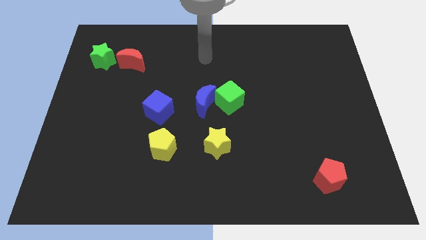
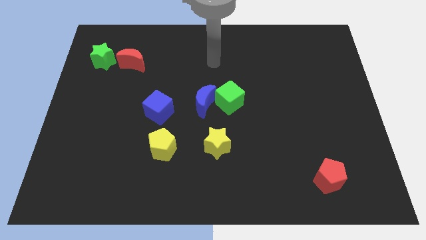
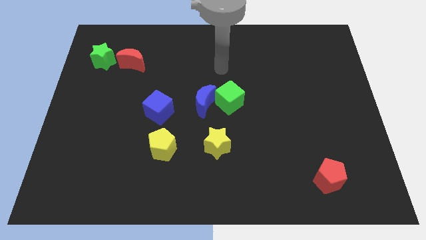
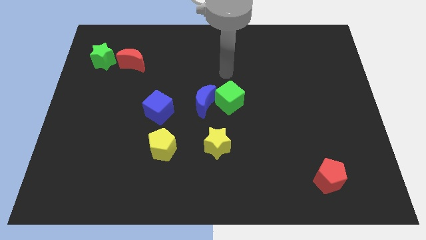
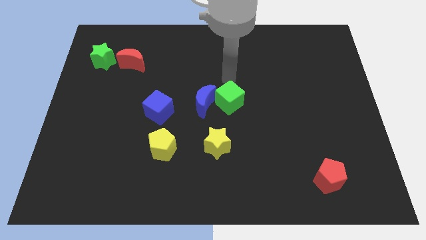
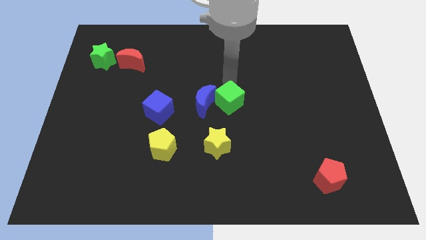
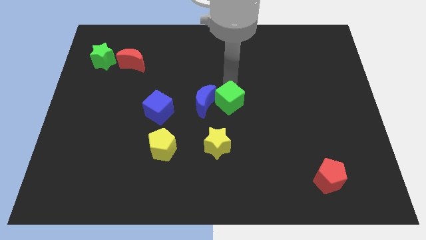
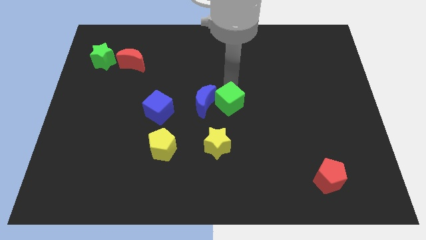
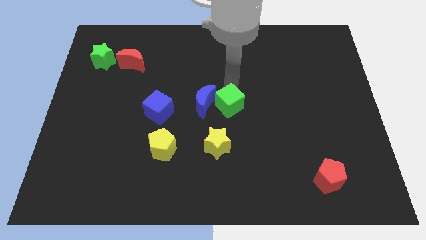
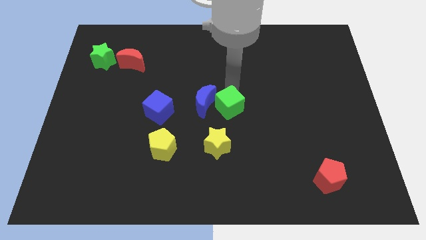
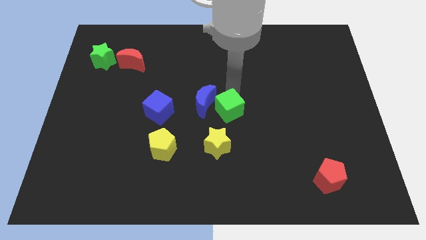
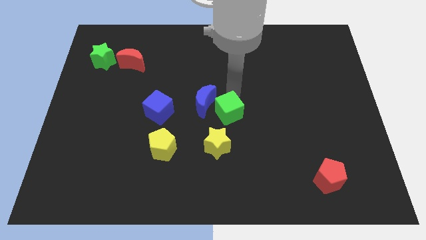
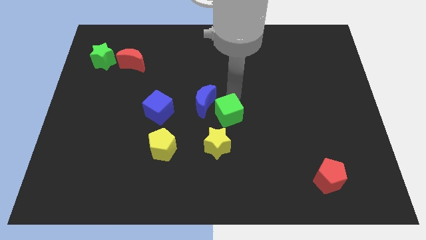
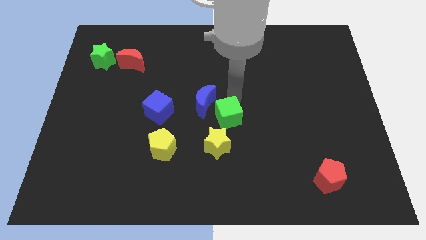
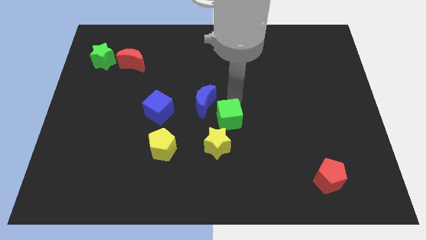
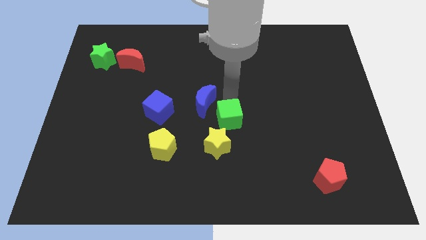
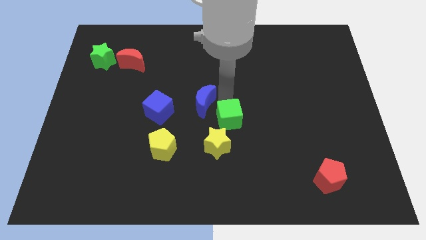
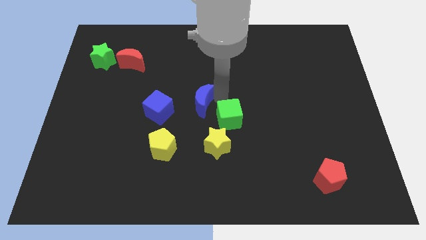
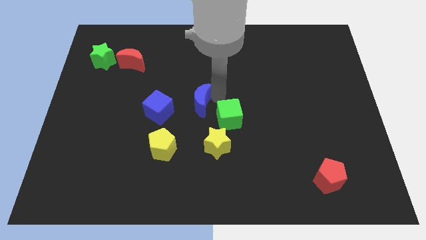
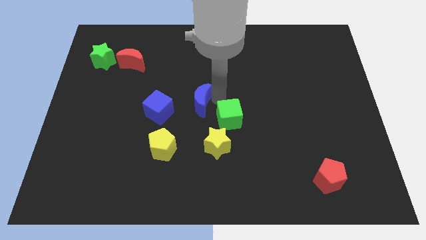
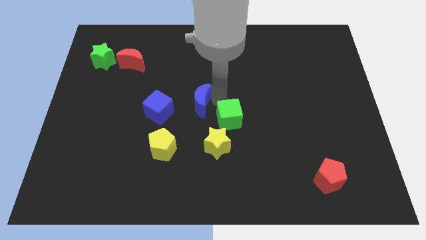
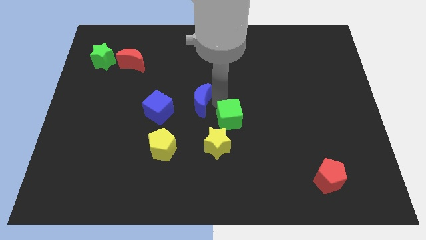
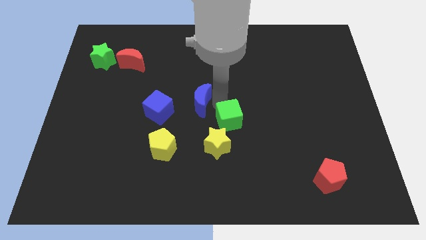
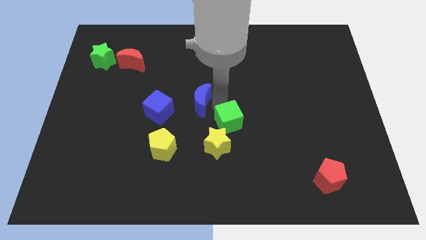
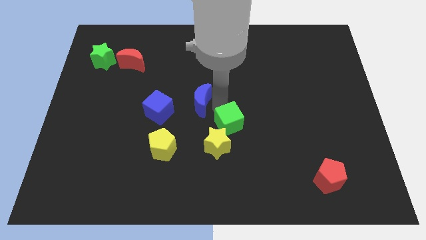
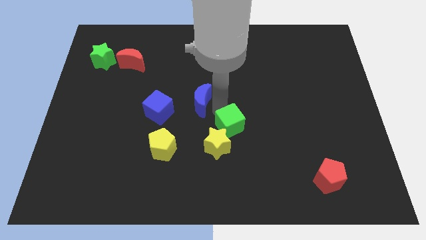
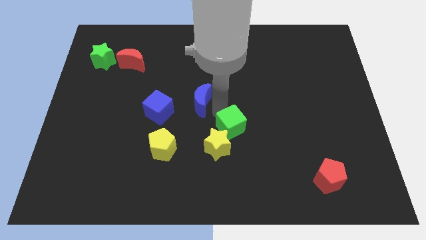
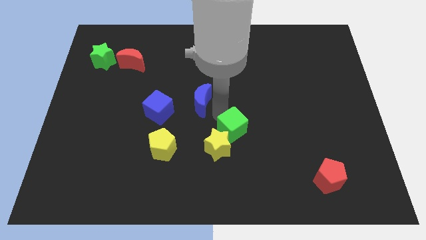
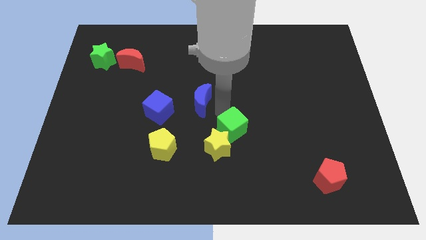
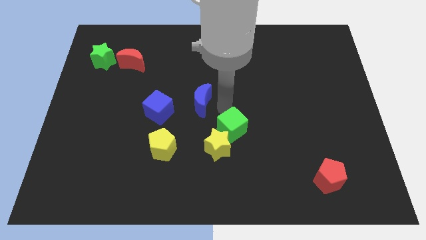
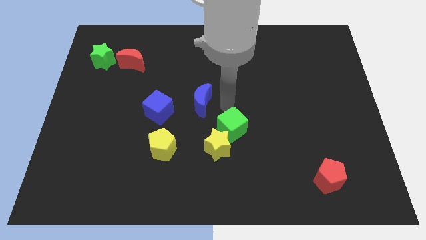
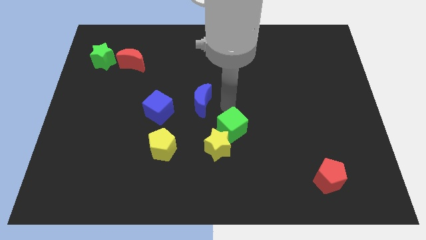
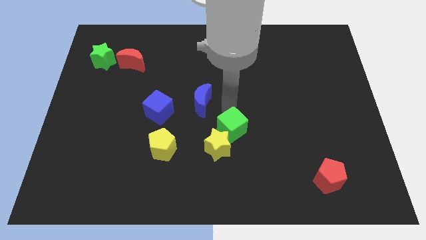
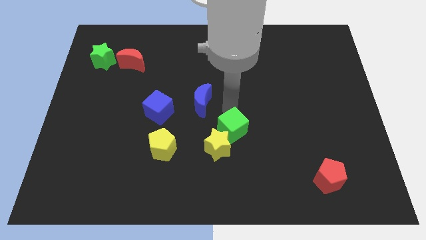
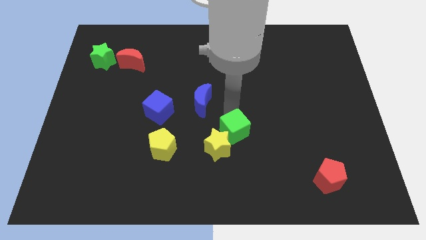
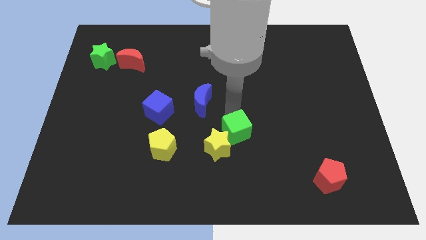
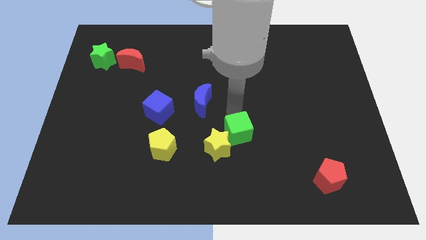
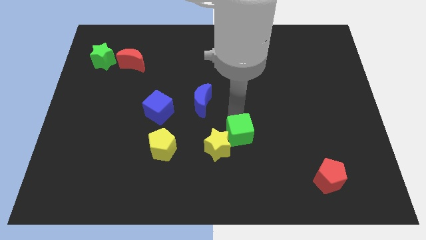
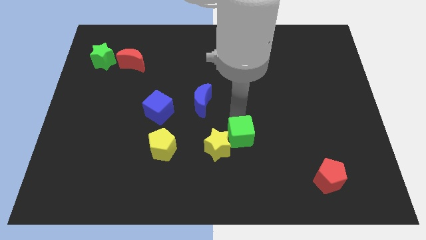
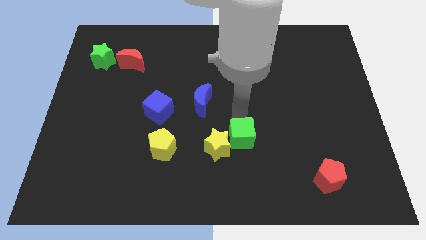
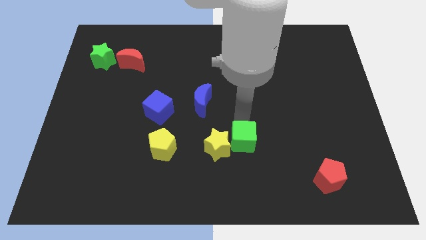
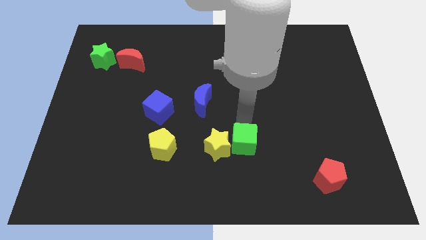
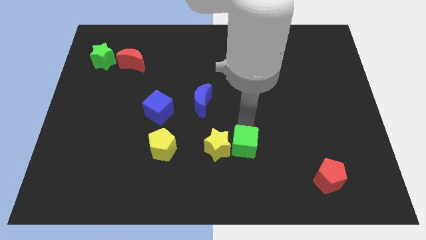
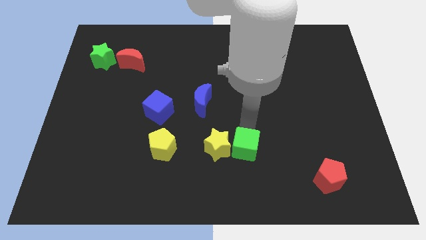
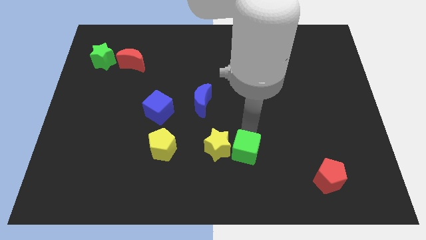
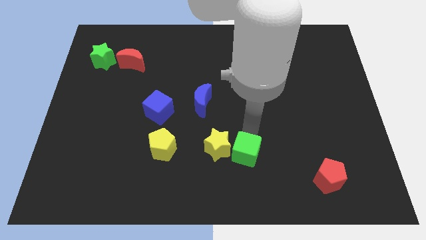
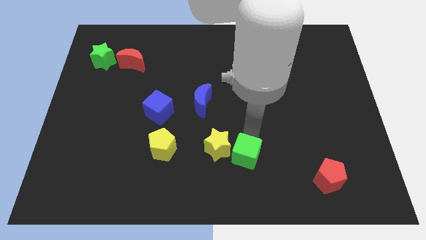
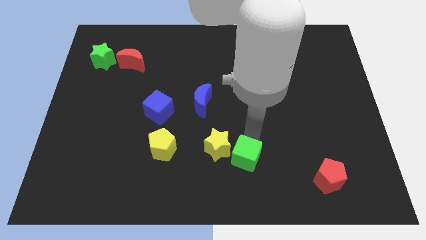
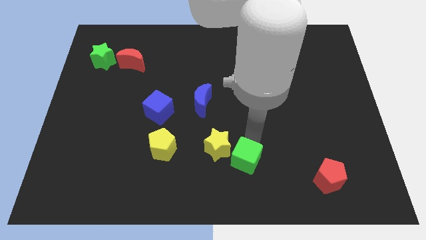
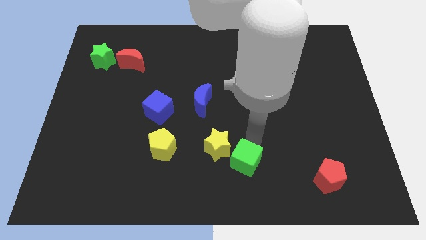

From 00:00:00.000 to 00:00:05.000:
move the green cube to the bottom side

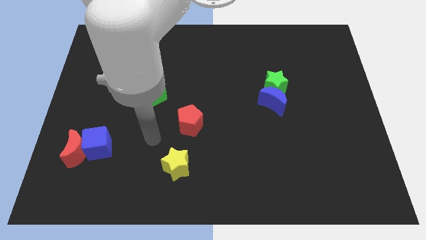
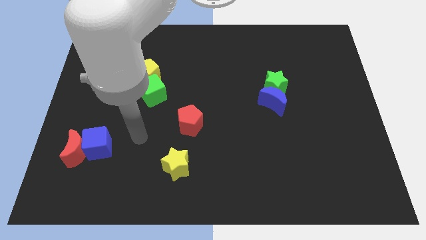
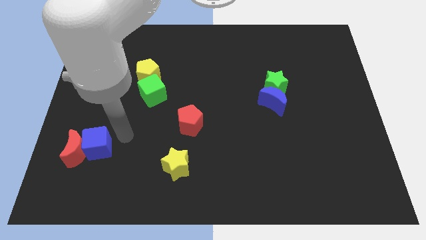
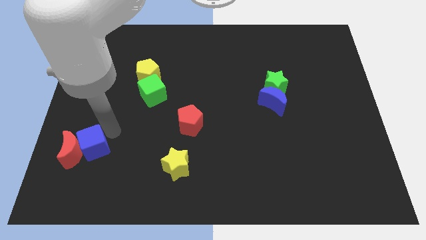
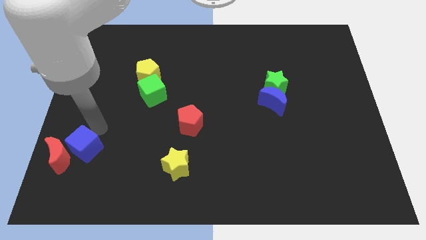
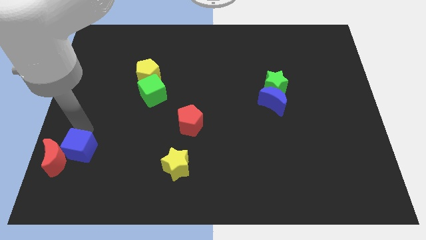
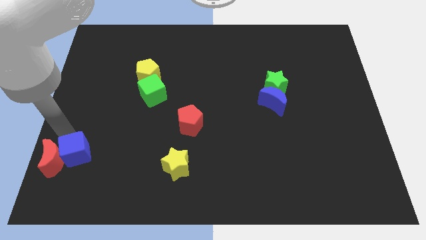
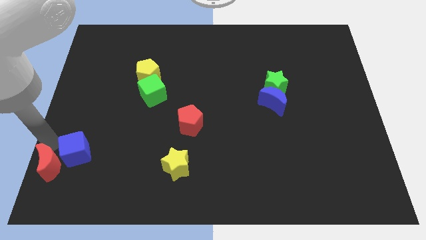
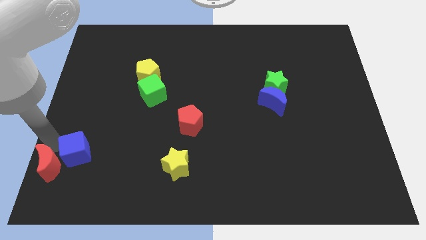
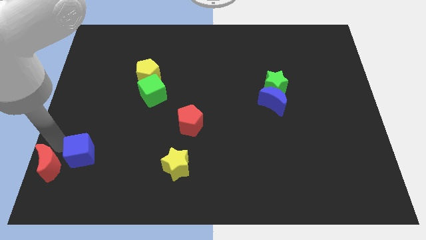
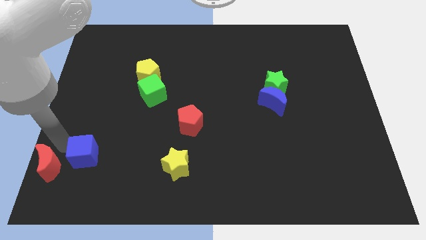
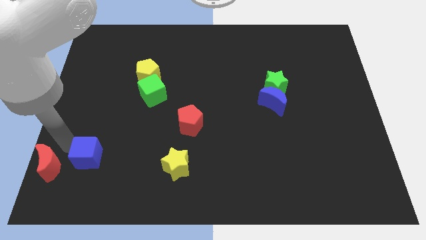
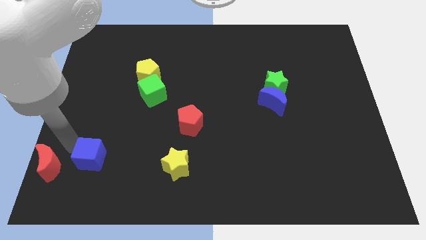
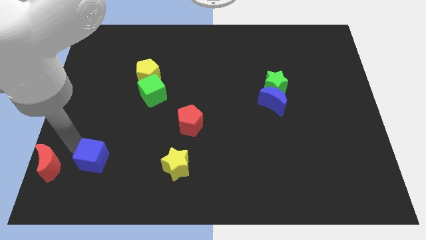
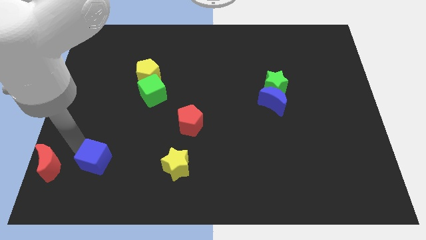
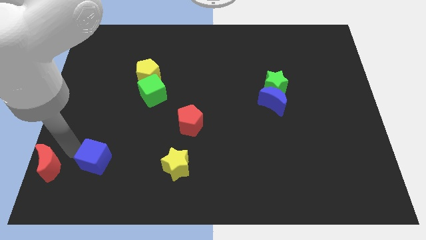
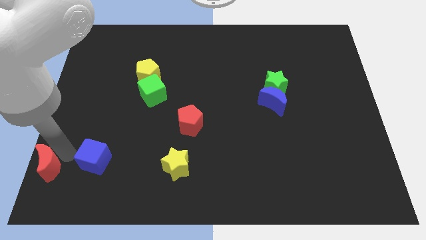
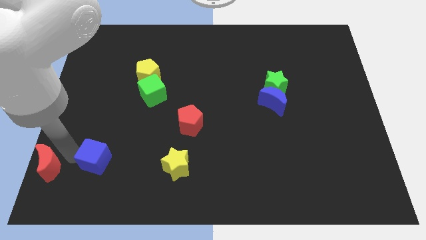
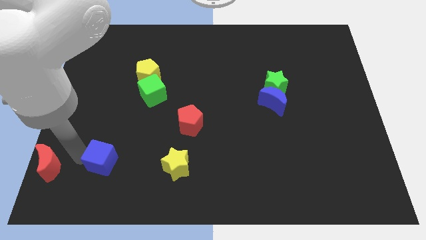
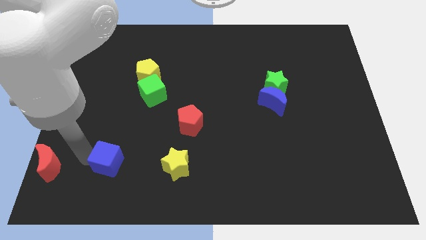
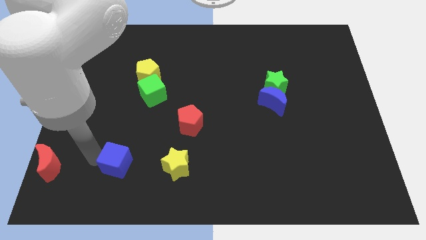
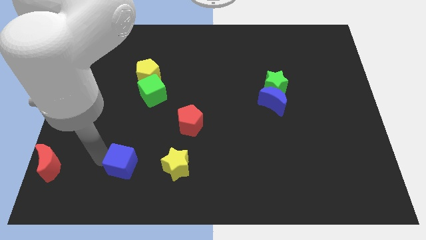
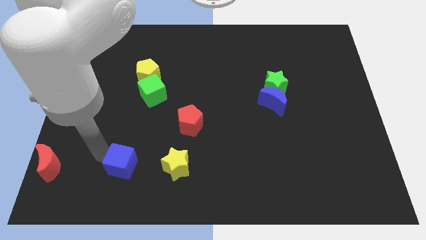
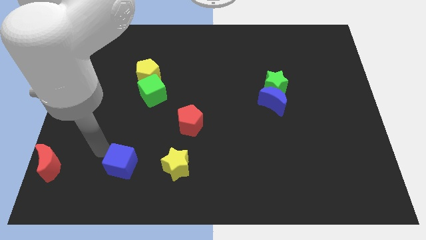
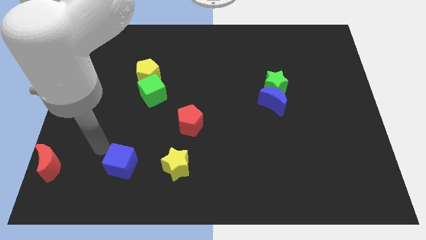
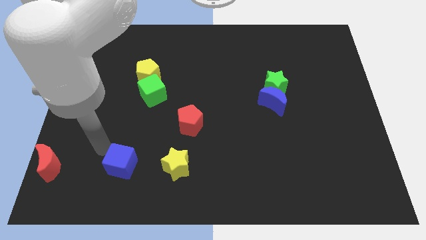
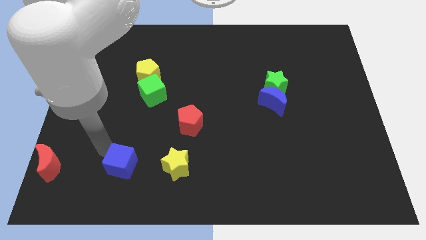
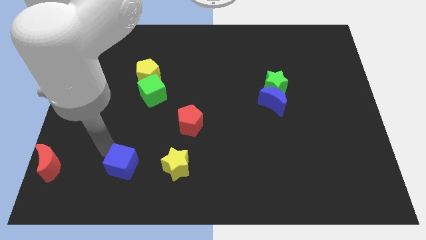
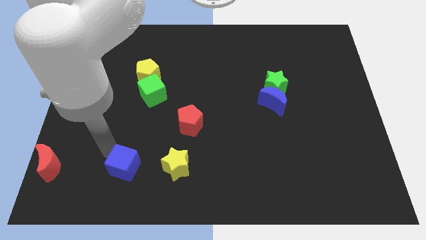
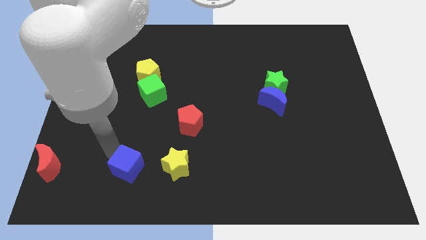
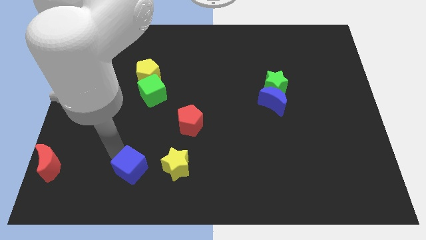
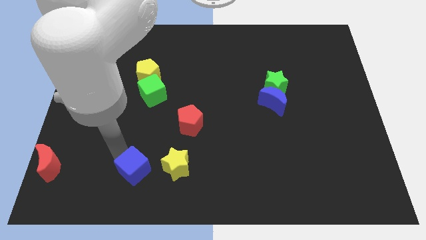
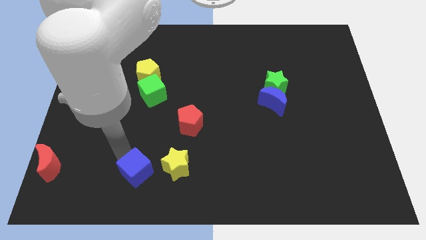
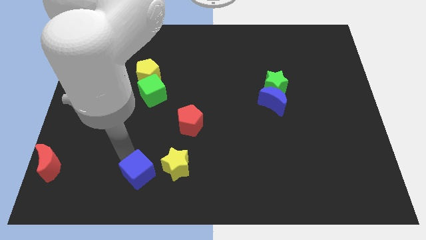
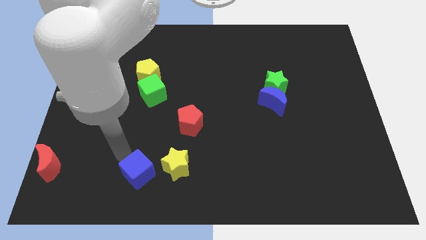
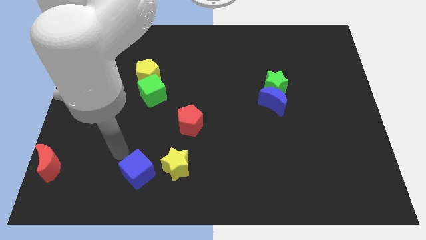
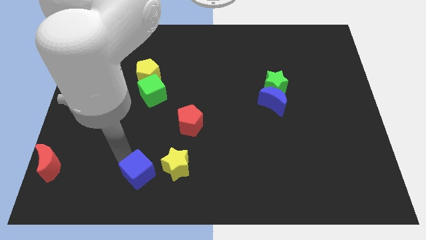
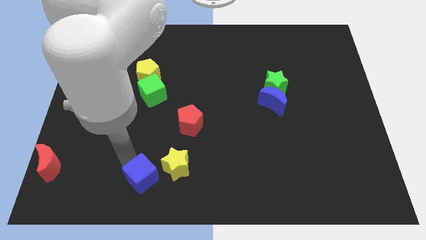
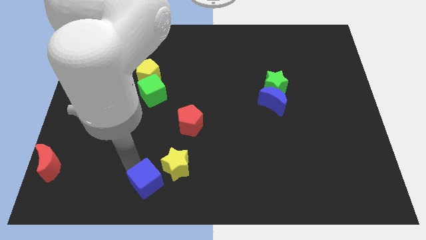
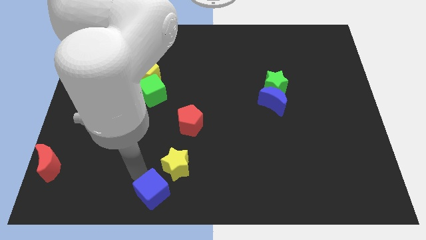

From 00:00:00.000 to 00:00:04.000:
move the blue cube to the bottom side
